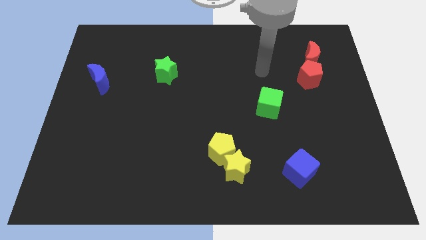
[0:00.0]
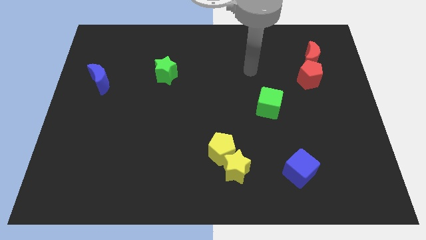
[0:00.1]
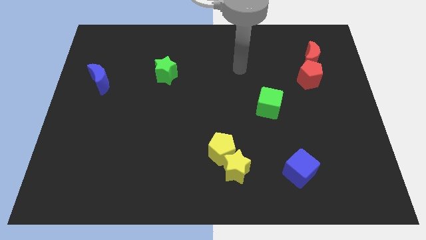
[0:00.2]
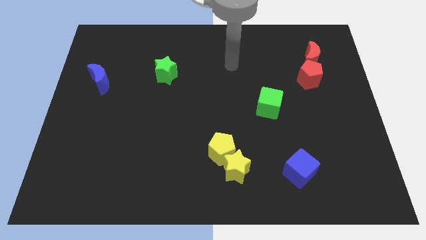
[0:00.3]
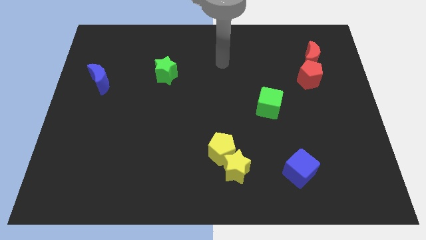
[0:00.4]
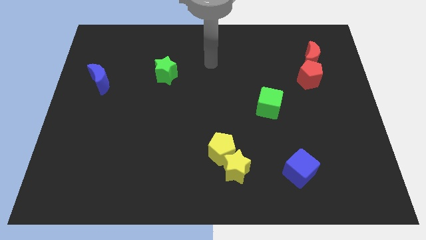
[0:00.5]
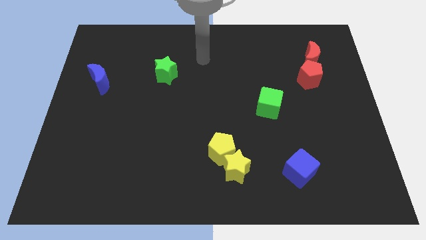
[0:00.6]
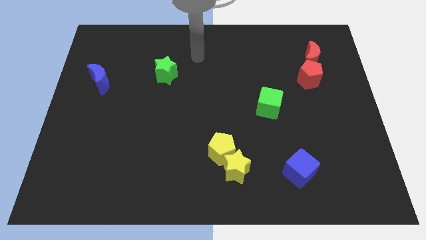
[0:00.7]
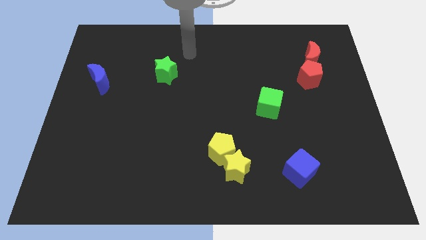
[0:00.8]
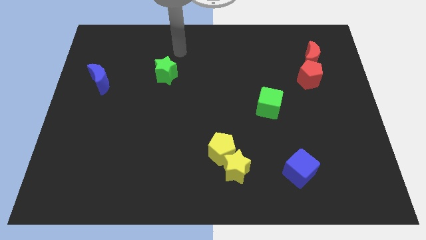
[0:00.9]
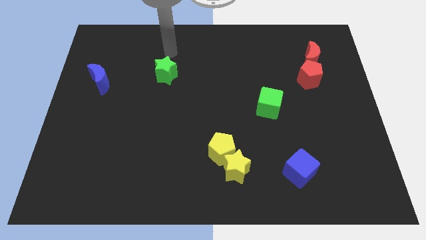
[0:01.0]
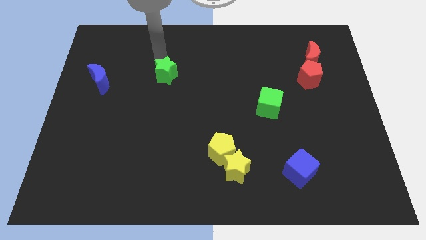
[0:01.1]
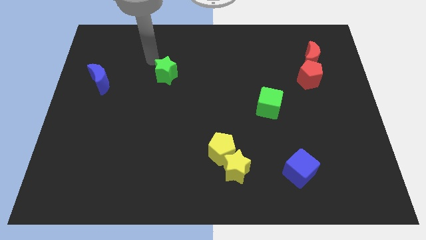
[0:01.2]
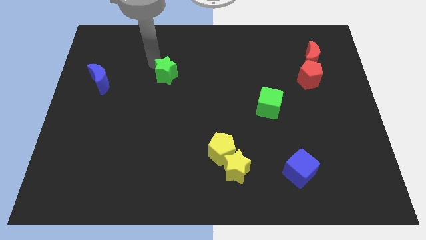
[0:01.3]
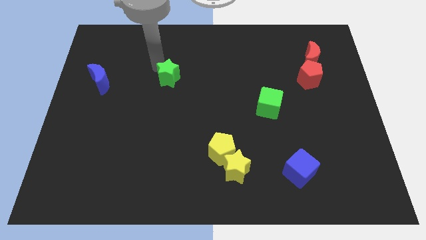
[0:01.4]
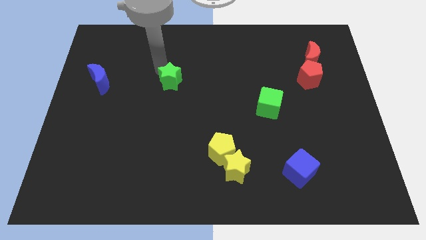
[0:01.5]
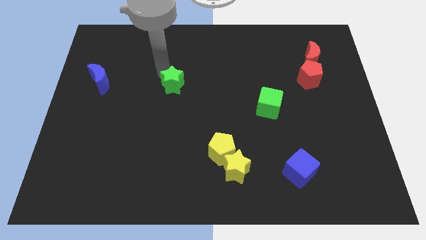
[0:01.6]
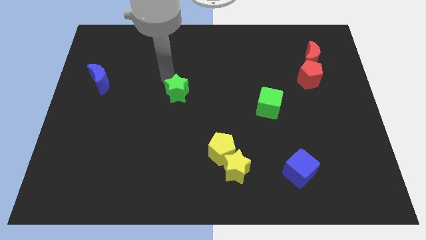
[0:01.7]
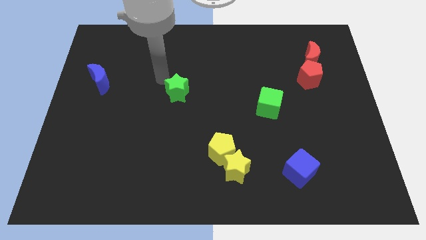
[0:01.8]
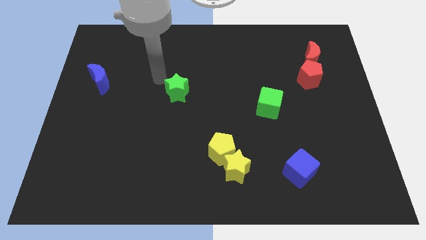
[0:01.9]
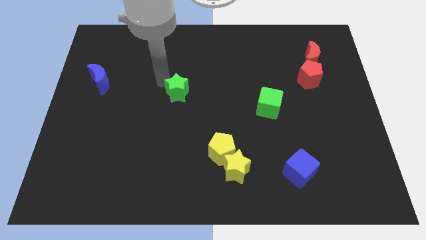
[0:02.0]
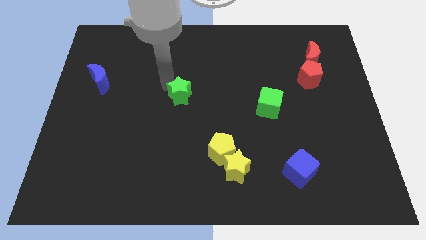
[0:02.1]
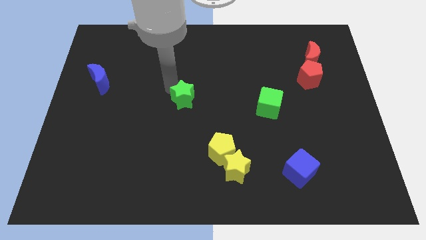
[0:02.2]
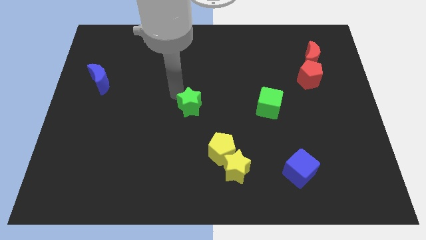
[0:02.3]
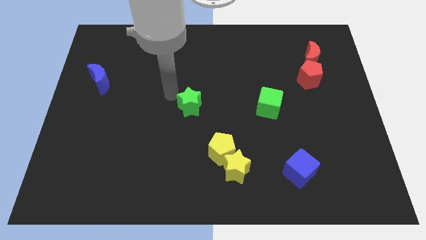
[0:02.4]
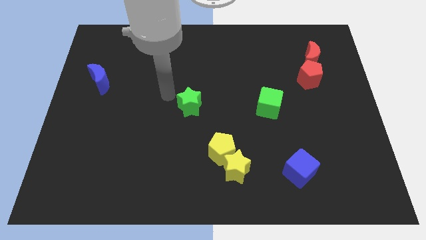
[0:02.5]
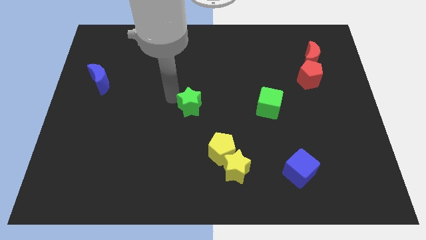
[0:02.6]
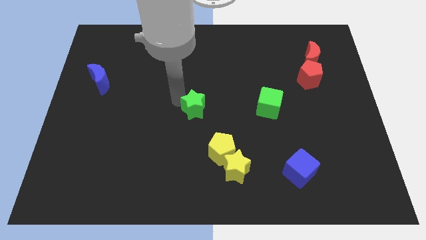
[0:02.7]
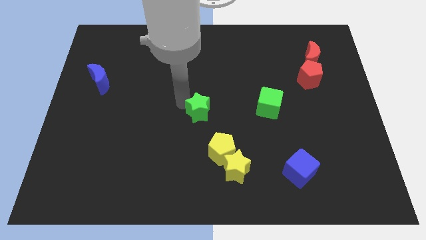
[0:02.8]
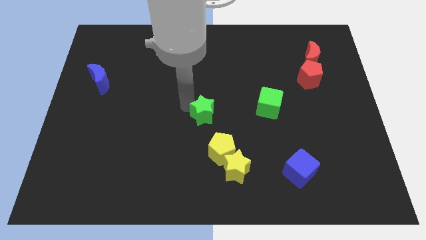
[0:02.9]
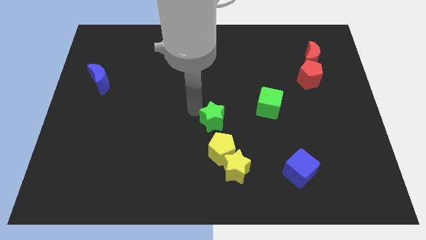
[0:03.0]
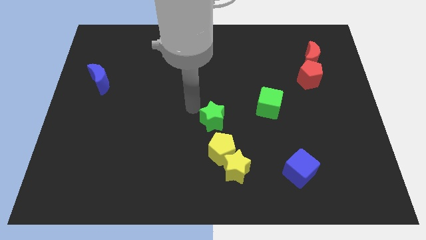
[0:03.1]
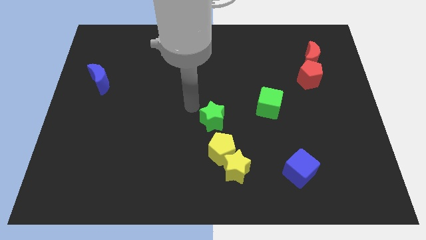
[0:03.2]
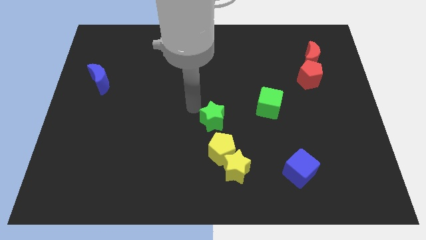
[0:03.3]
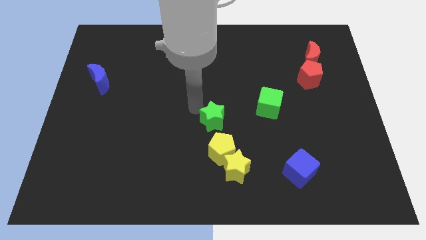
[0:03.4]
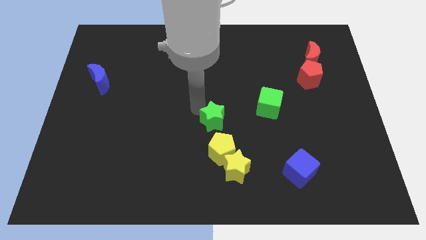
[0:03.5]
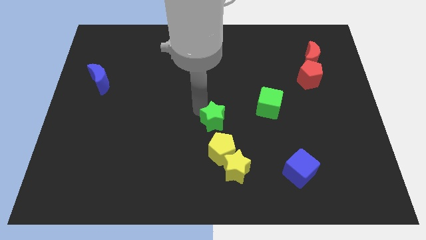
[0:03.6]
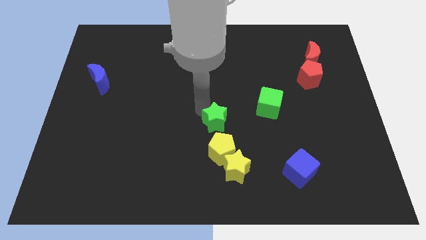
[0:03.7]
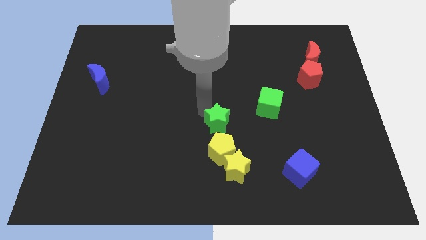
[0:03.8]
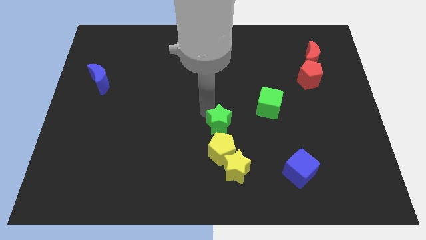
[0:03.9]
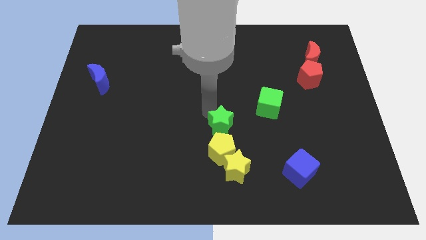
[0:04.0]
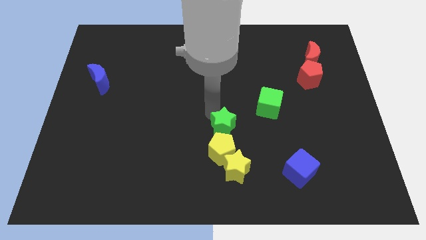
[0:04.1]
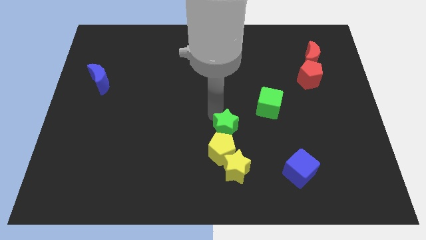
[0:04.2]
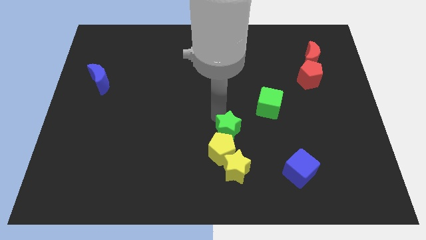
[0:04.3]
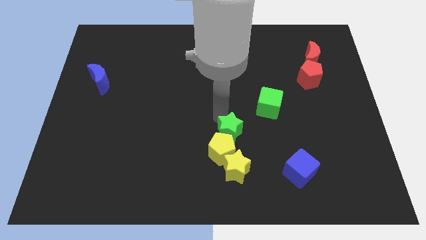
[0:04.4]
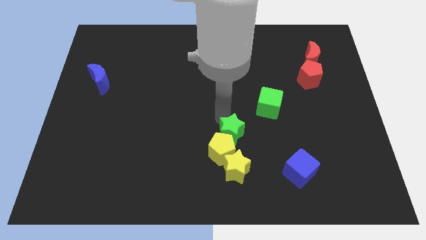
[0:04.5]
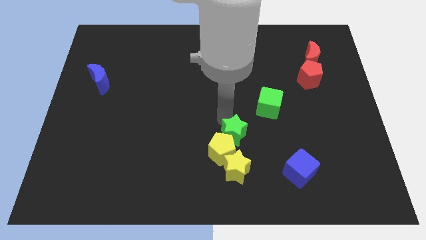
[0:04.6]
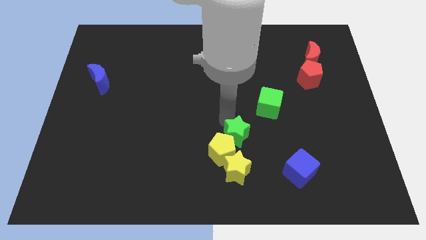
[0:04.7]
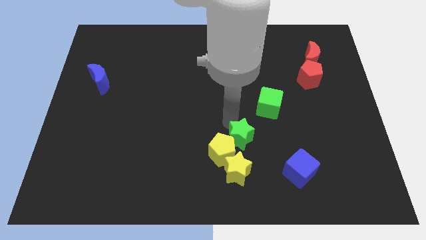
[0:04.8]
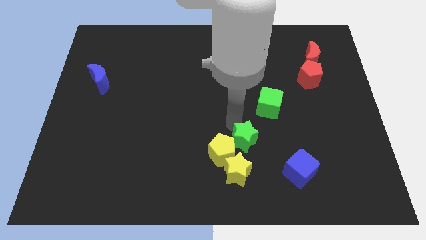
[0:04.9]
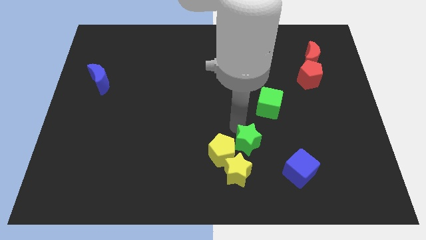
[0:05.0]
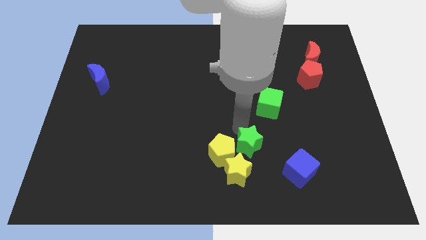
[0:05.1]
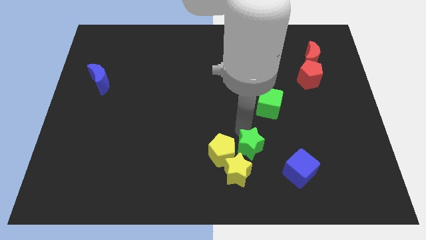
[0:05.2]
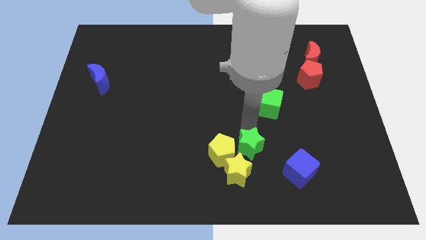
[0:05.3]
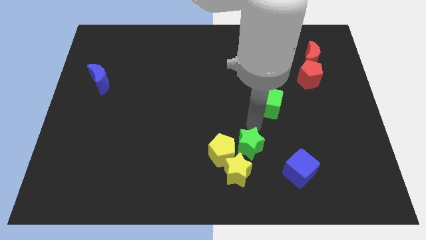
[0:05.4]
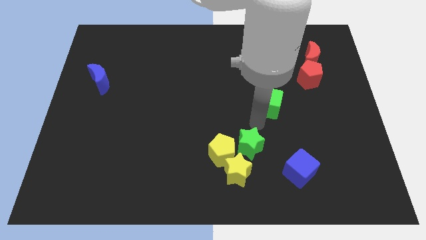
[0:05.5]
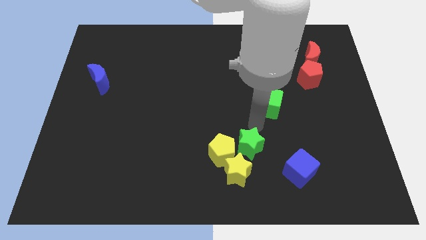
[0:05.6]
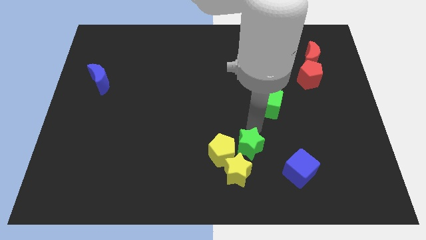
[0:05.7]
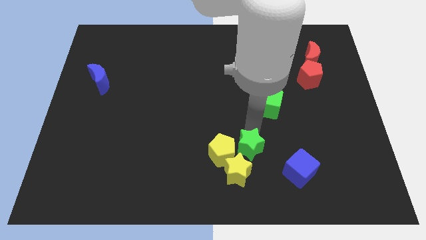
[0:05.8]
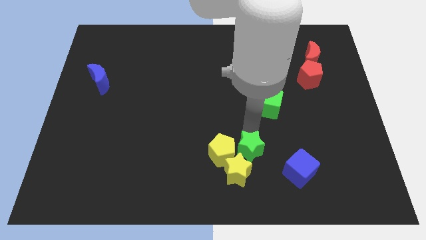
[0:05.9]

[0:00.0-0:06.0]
slide the green star close to the yellow star
